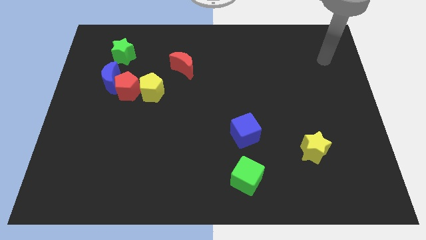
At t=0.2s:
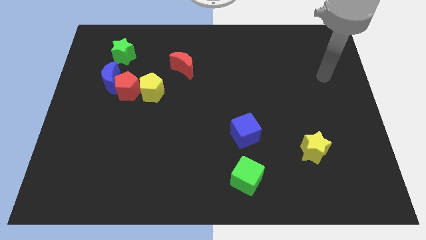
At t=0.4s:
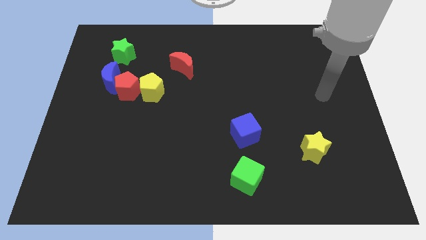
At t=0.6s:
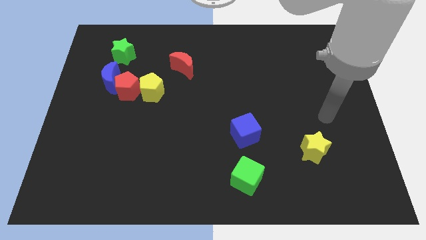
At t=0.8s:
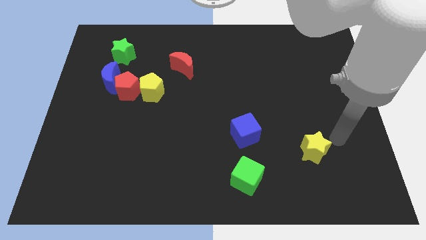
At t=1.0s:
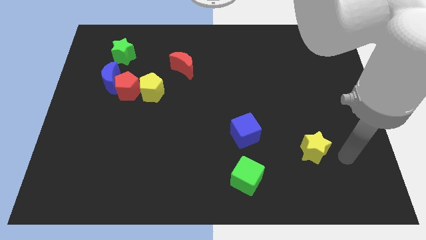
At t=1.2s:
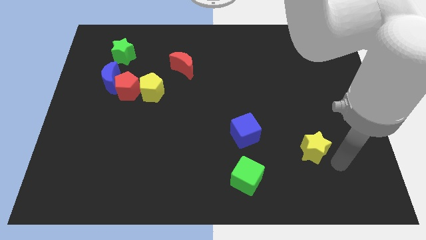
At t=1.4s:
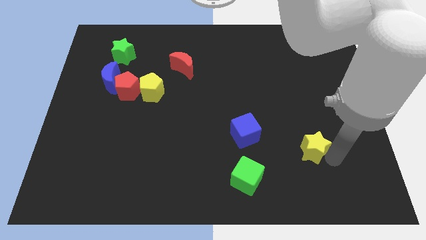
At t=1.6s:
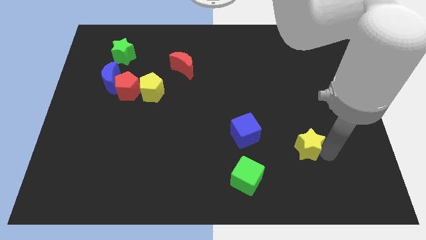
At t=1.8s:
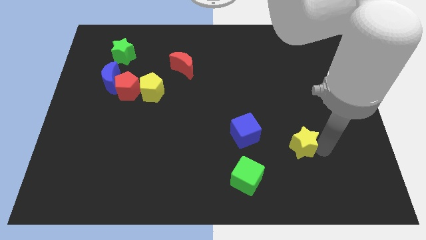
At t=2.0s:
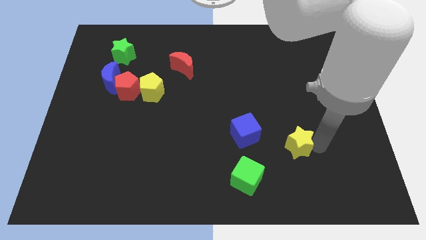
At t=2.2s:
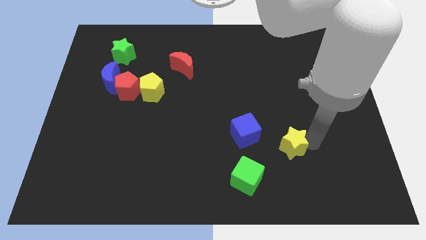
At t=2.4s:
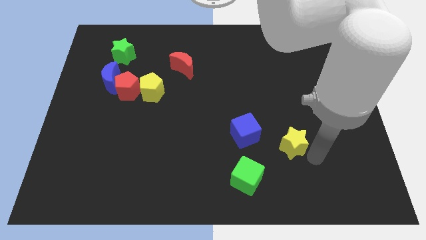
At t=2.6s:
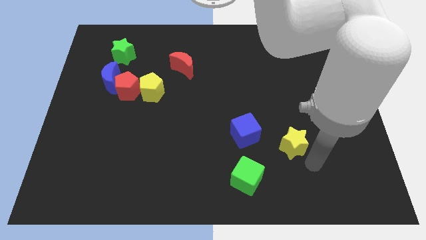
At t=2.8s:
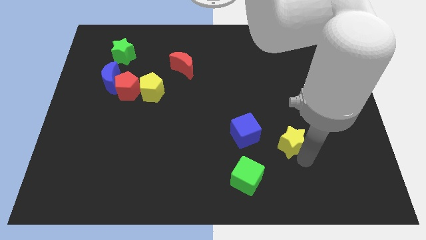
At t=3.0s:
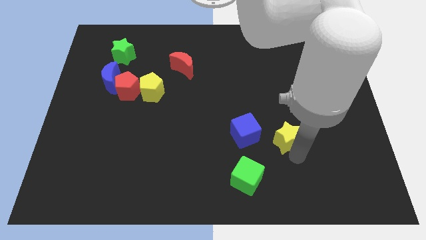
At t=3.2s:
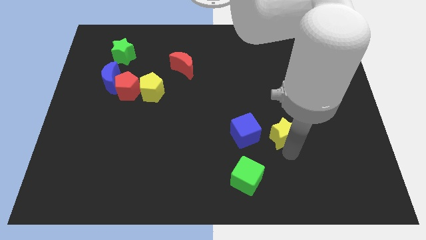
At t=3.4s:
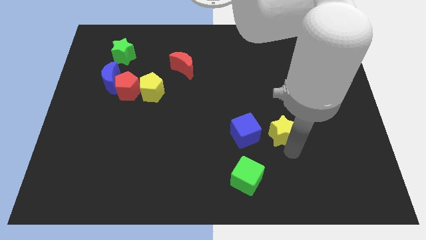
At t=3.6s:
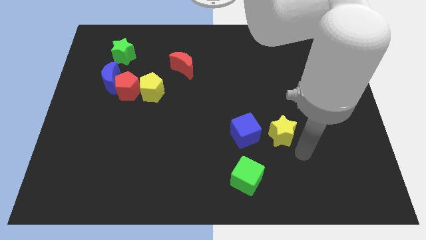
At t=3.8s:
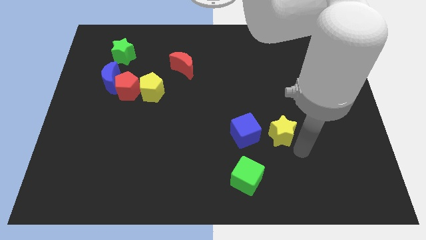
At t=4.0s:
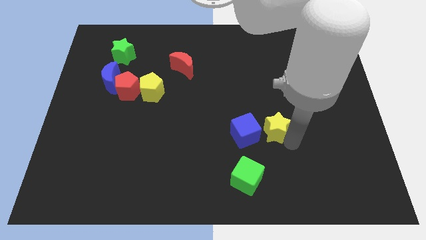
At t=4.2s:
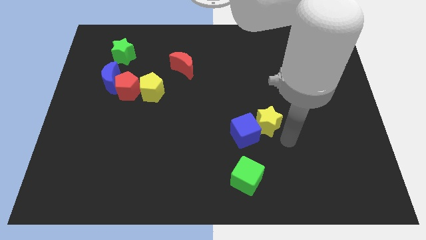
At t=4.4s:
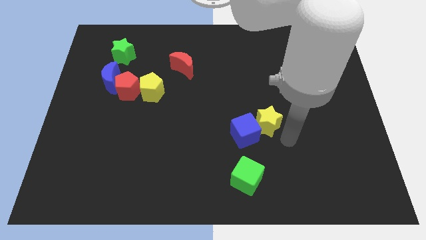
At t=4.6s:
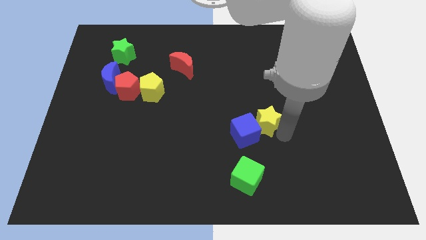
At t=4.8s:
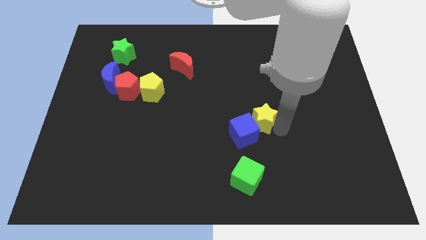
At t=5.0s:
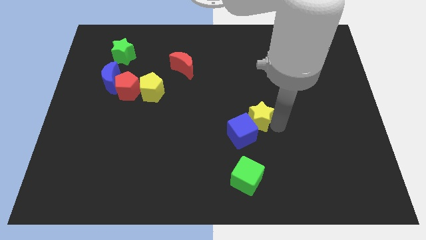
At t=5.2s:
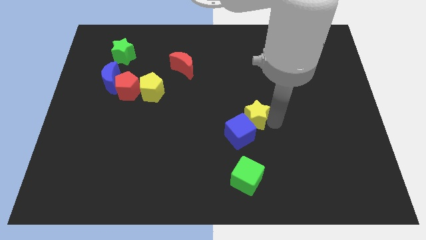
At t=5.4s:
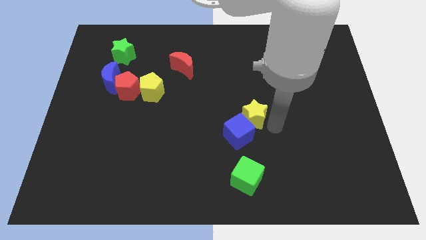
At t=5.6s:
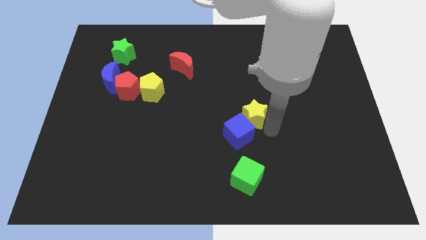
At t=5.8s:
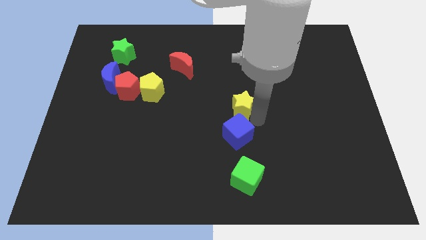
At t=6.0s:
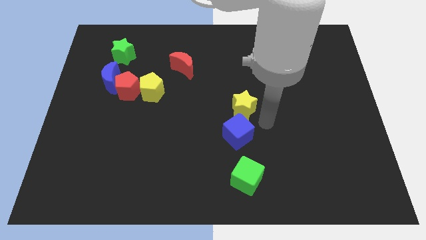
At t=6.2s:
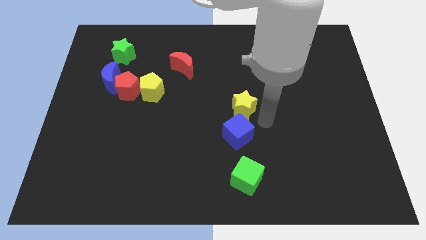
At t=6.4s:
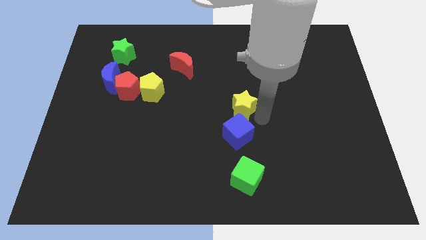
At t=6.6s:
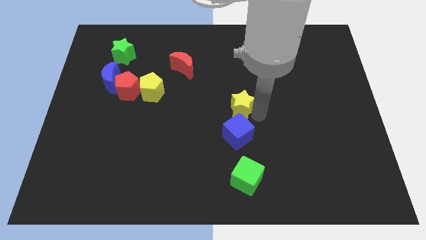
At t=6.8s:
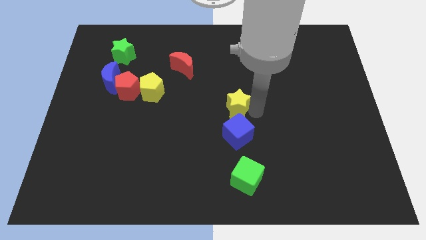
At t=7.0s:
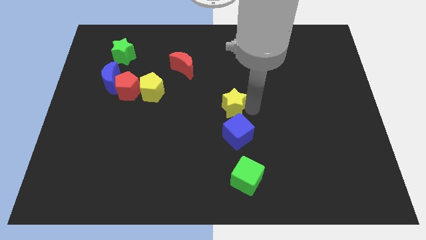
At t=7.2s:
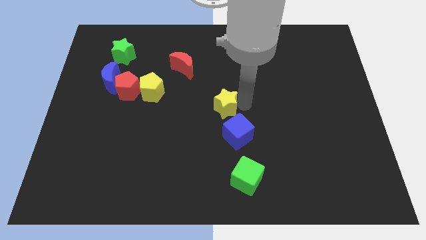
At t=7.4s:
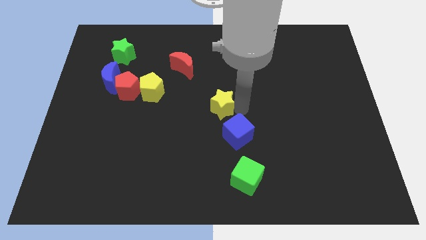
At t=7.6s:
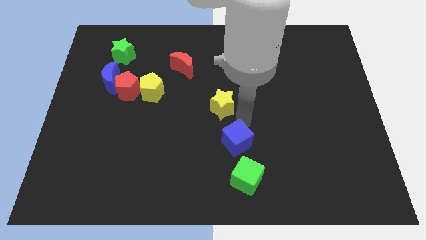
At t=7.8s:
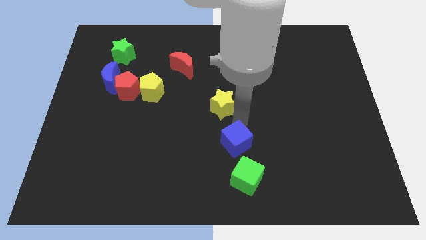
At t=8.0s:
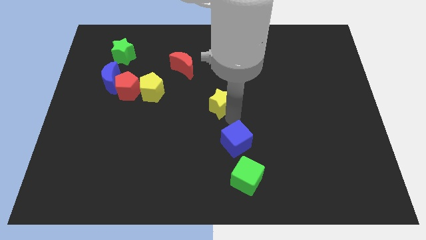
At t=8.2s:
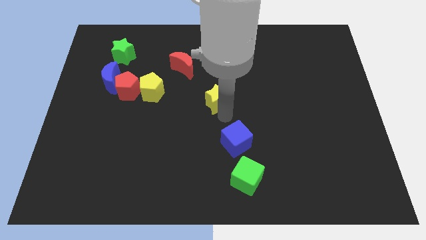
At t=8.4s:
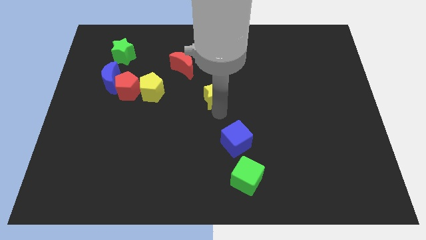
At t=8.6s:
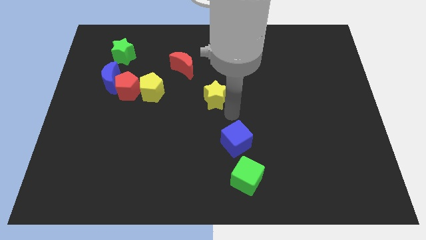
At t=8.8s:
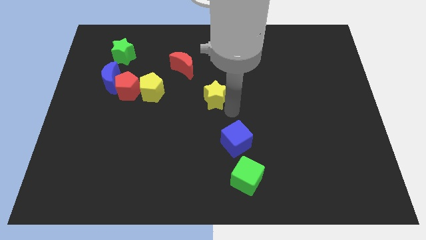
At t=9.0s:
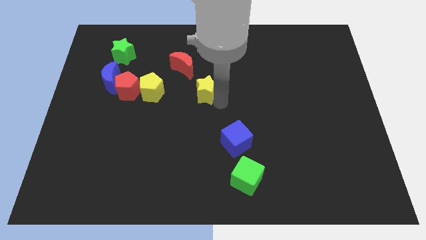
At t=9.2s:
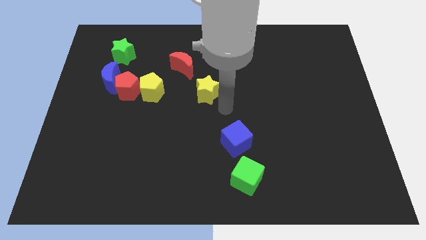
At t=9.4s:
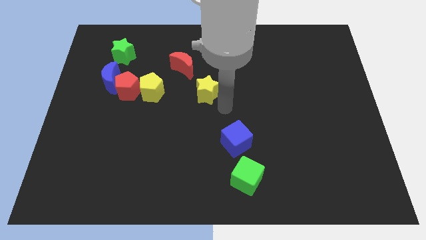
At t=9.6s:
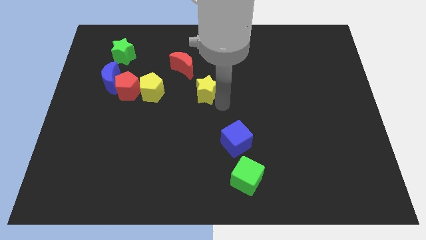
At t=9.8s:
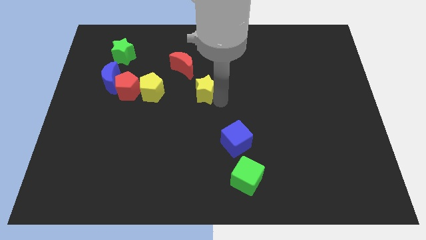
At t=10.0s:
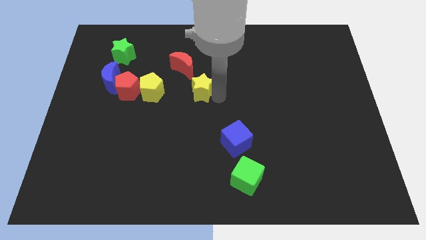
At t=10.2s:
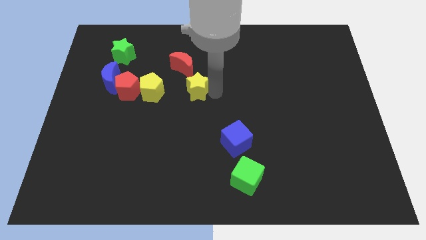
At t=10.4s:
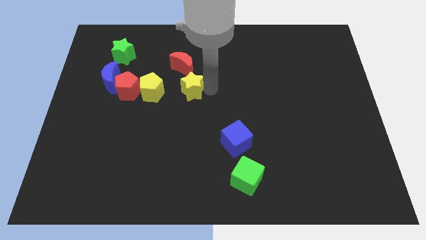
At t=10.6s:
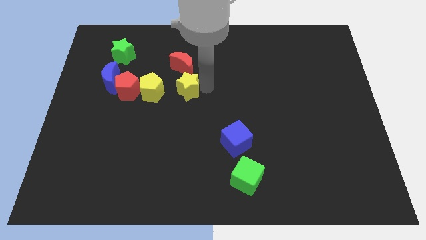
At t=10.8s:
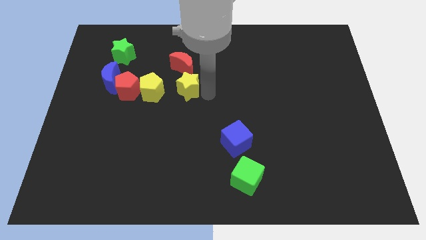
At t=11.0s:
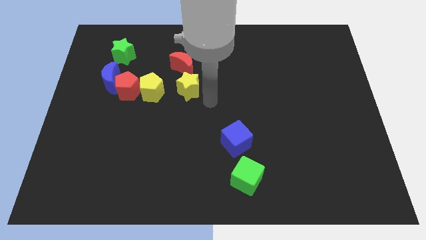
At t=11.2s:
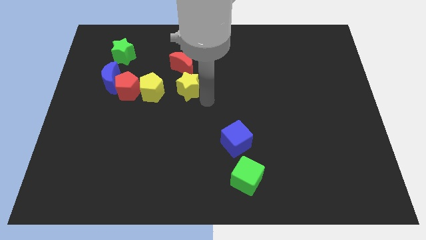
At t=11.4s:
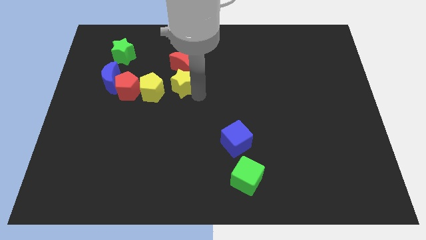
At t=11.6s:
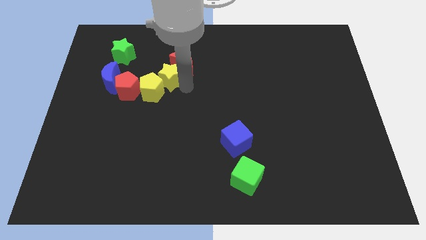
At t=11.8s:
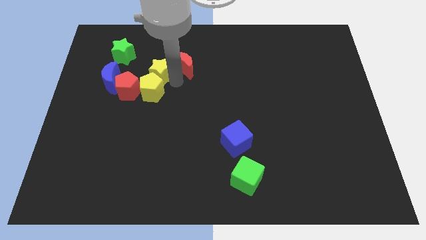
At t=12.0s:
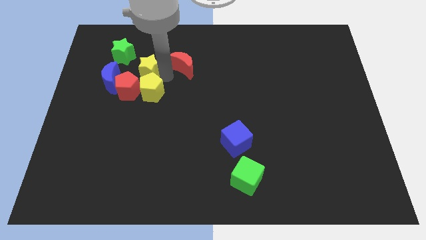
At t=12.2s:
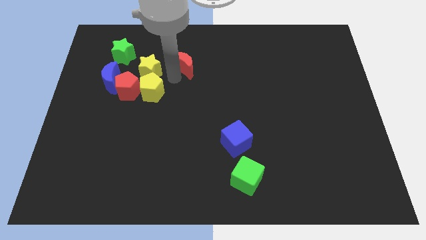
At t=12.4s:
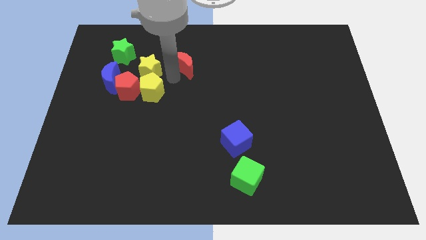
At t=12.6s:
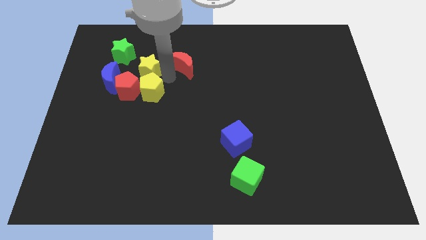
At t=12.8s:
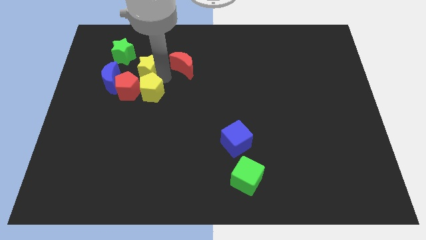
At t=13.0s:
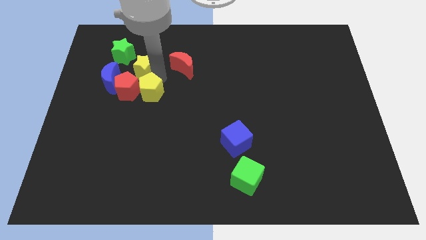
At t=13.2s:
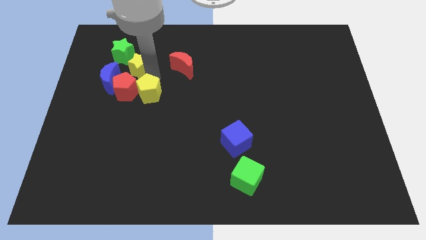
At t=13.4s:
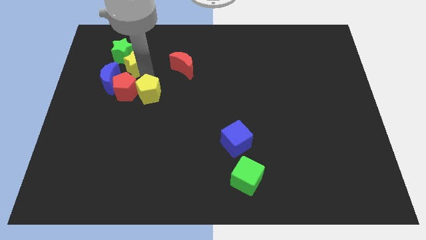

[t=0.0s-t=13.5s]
put the yellow star to the green star
